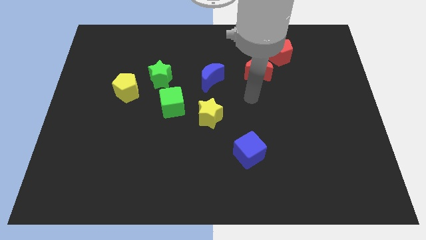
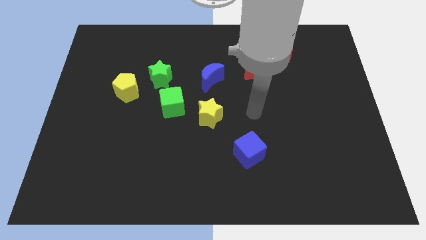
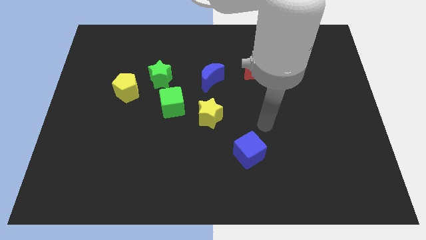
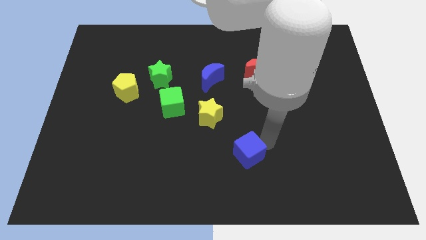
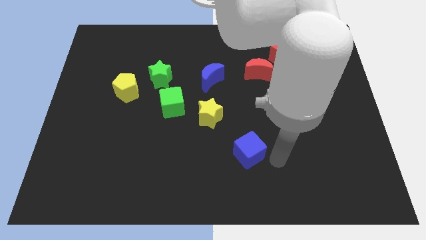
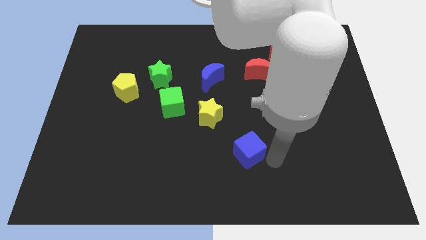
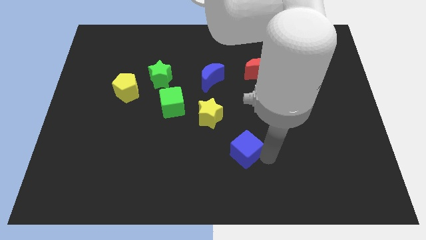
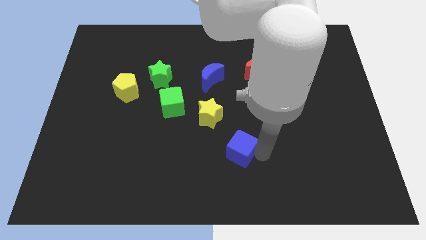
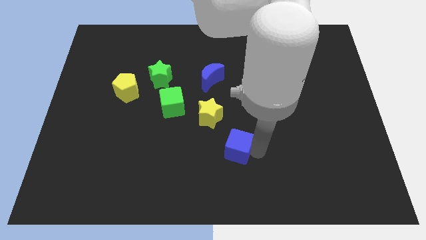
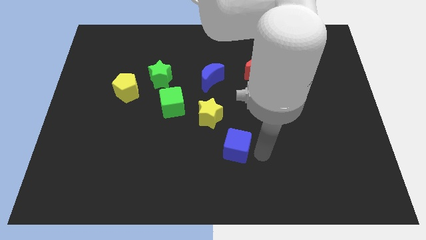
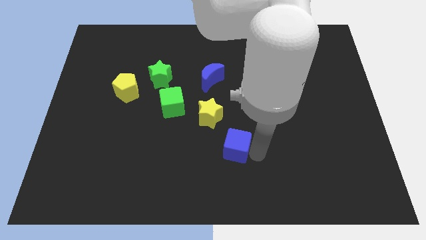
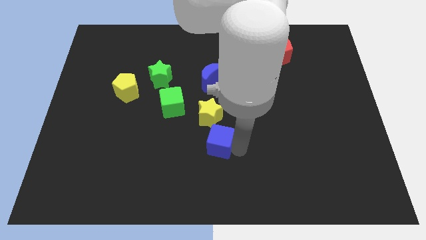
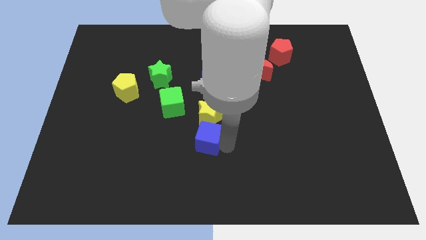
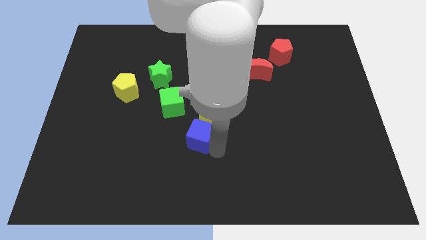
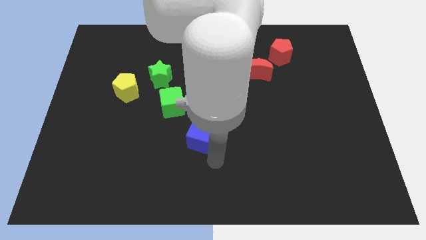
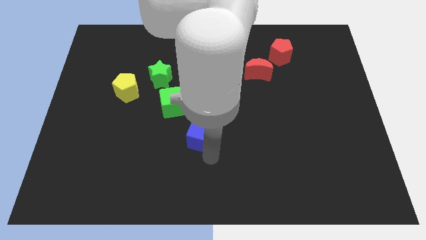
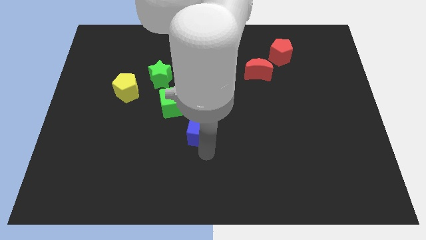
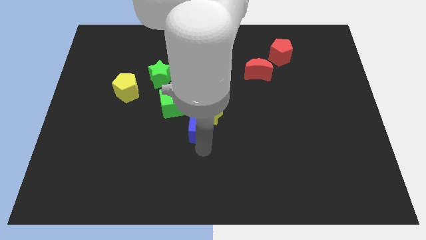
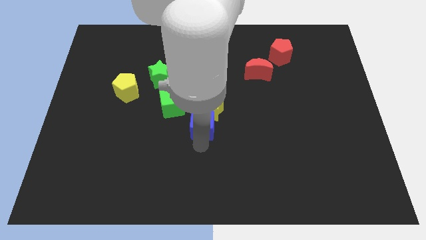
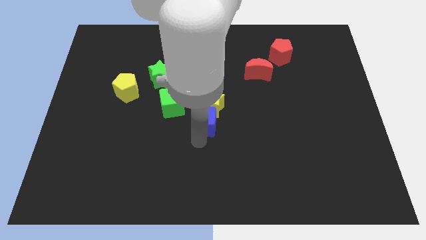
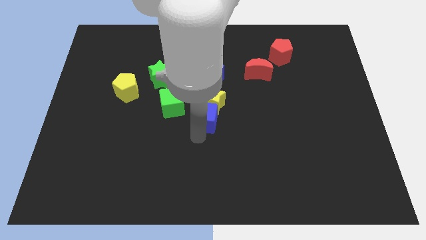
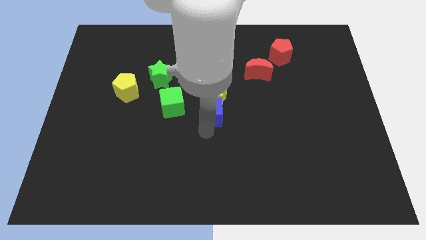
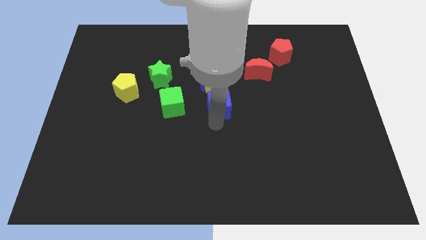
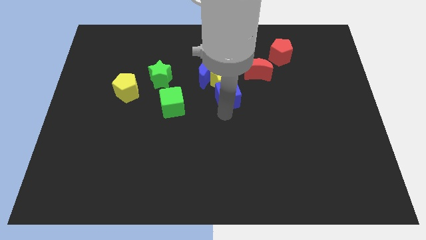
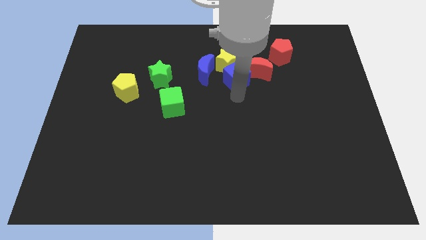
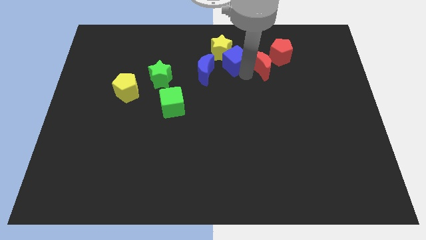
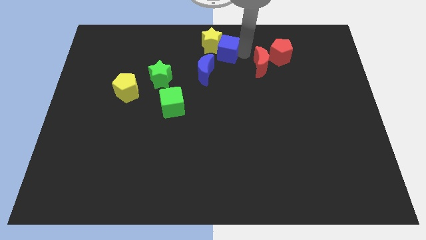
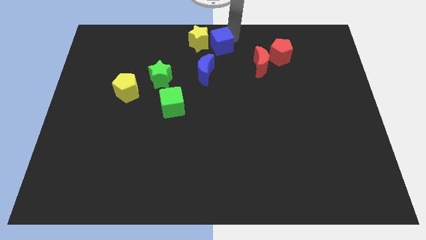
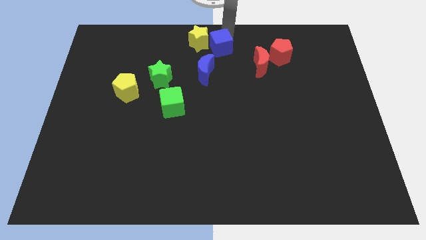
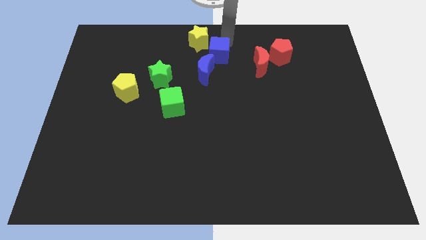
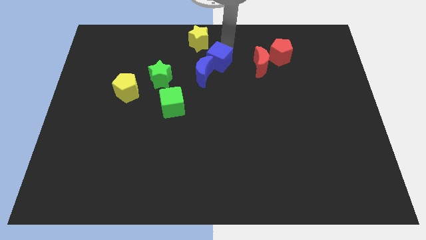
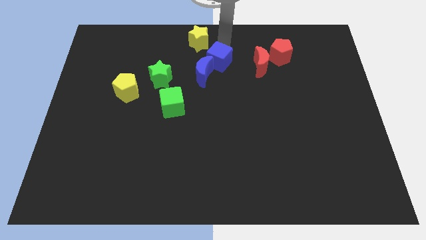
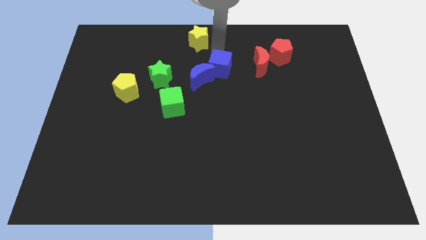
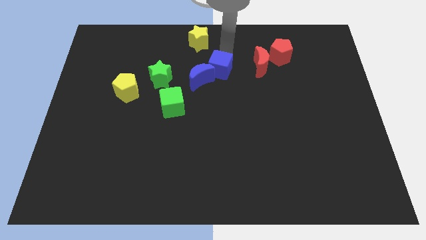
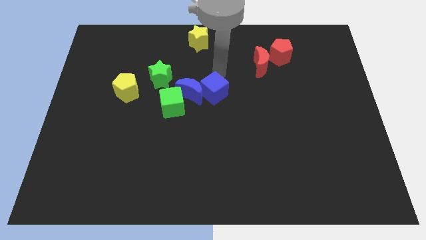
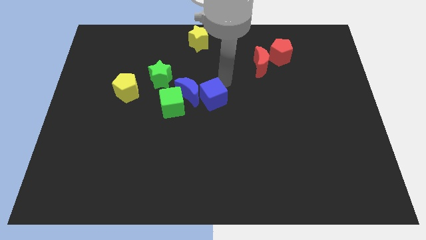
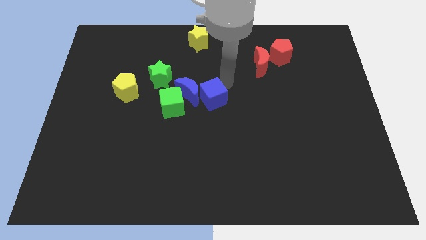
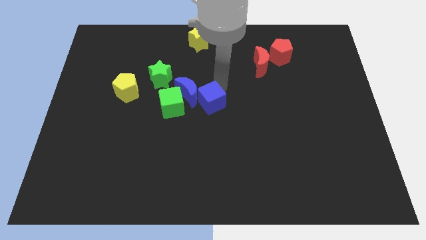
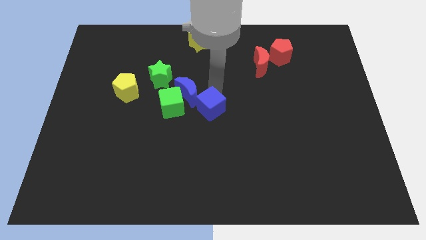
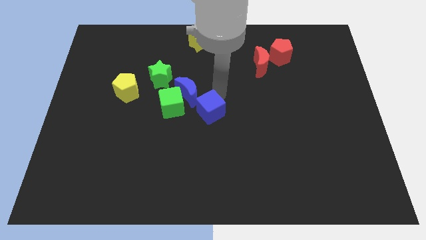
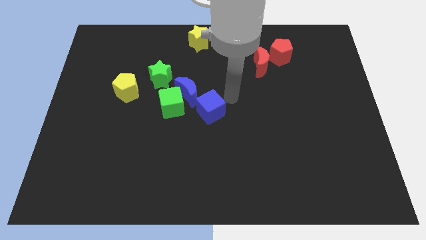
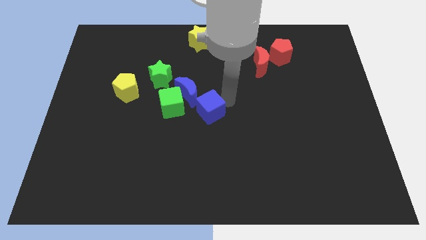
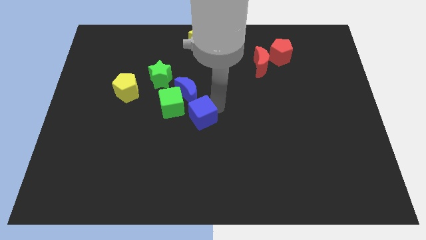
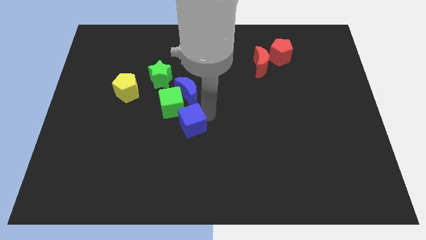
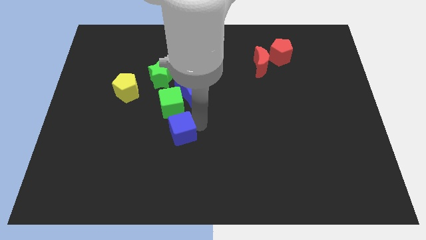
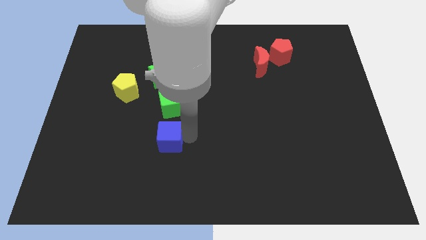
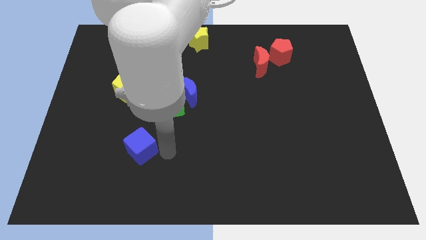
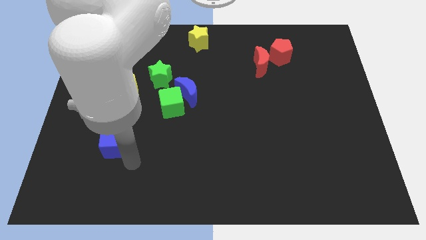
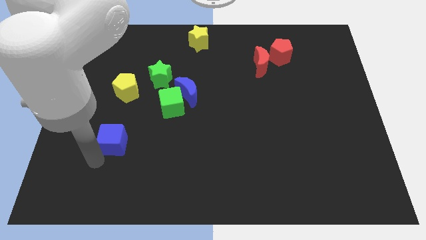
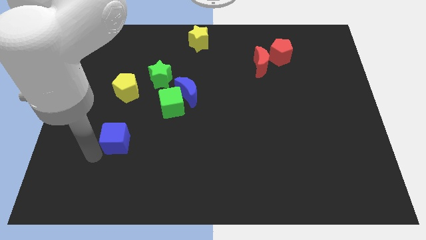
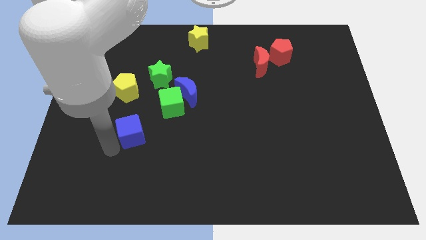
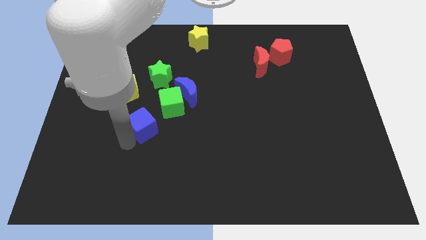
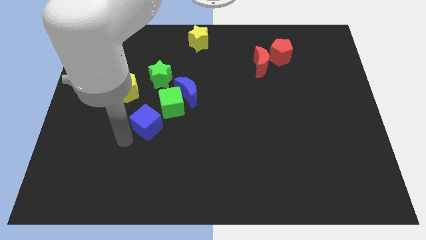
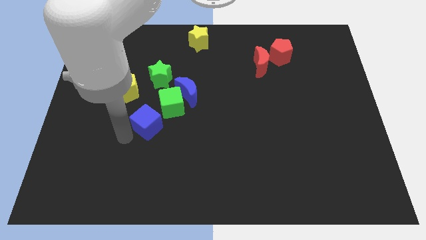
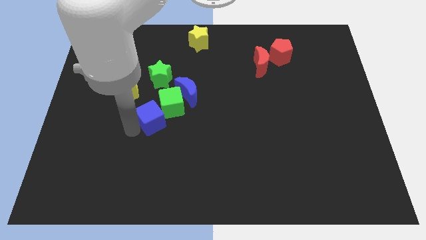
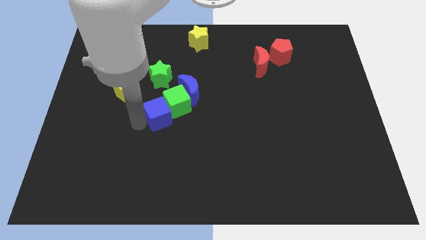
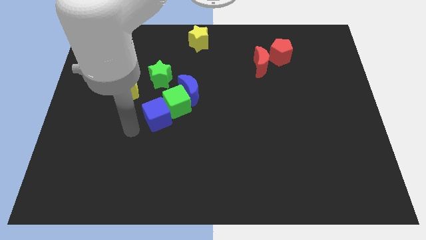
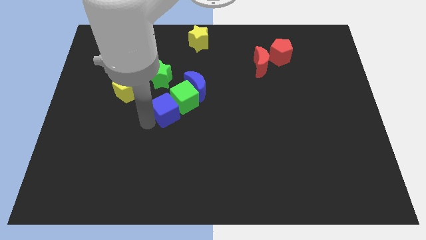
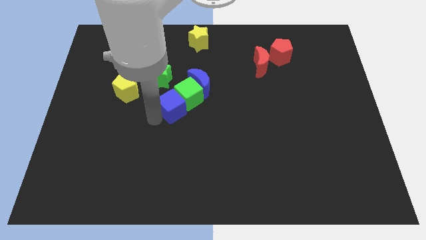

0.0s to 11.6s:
push the blue cube to the bottom right side of the green star

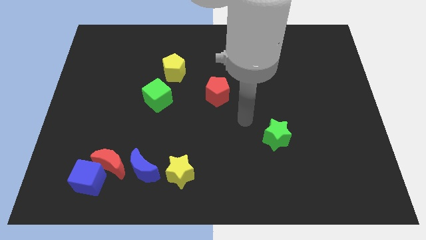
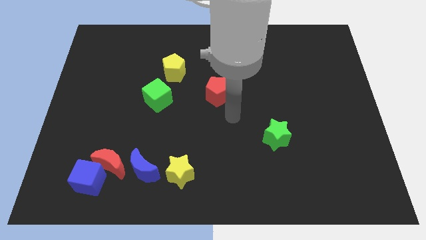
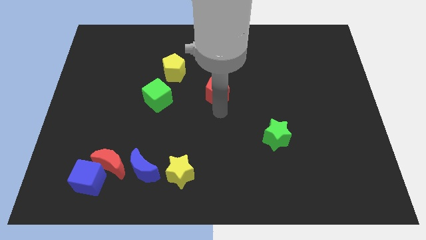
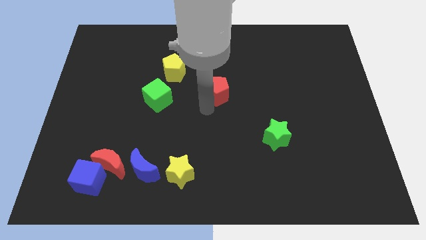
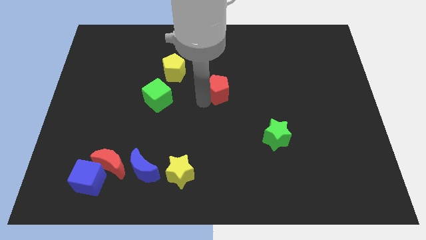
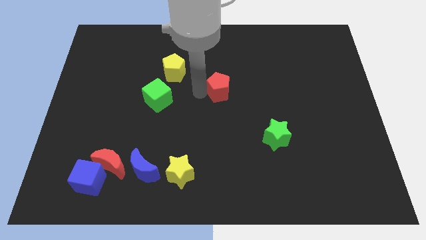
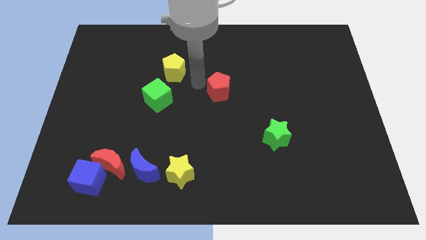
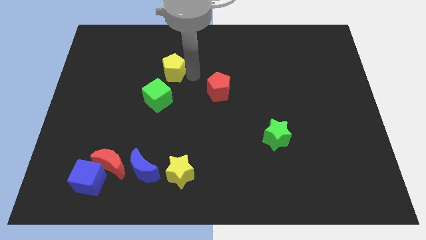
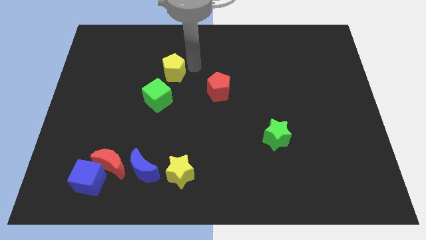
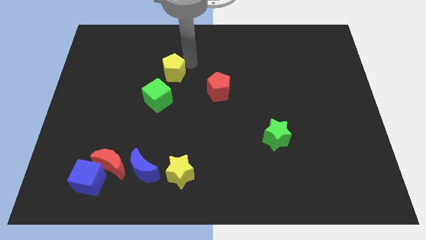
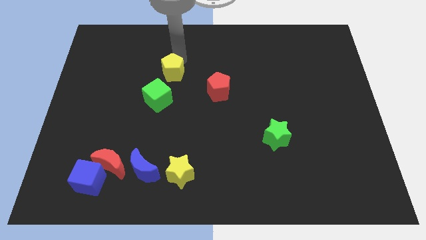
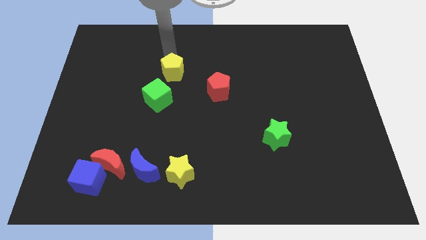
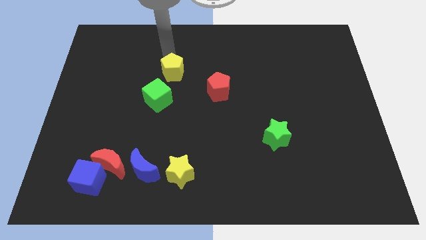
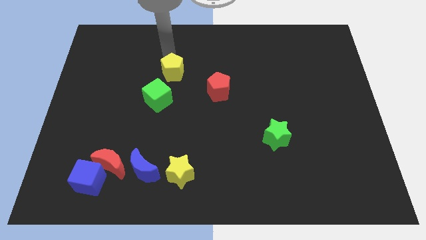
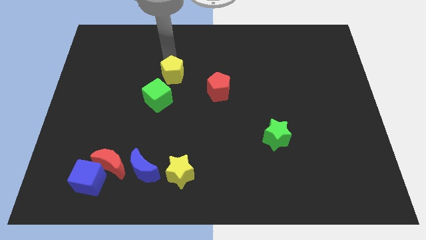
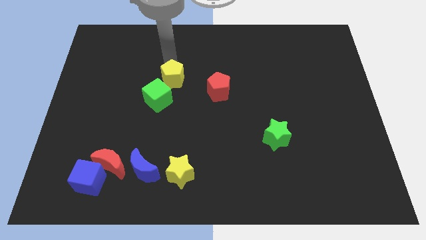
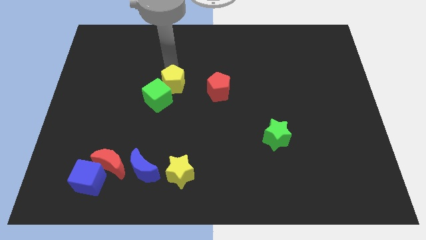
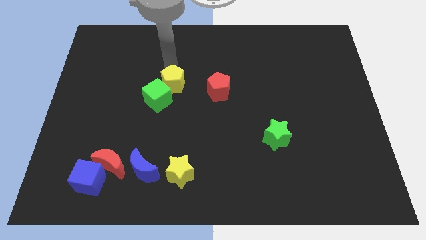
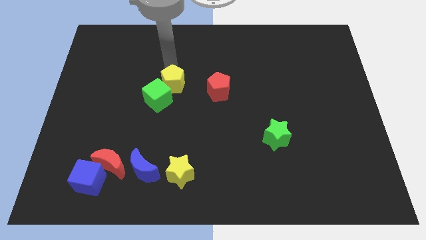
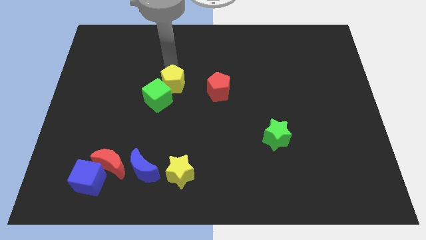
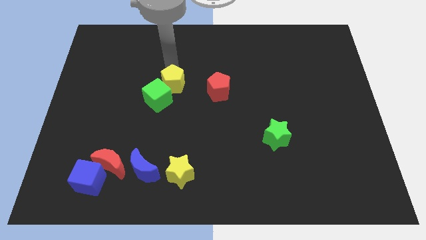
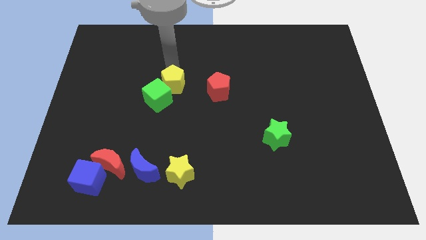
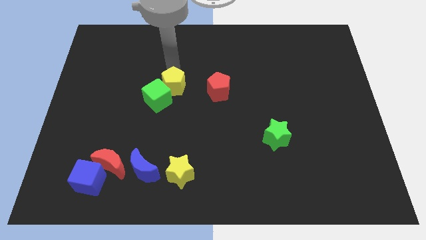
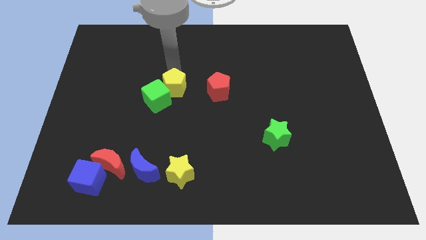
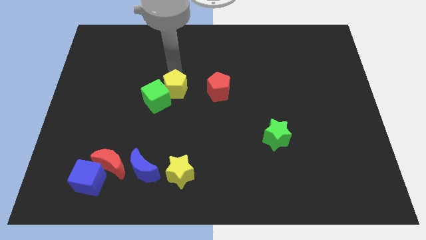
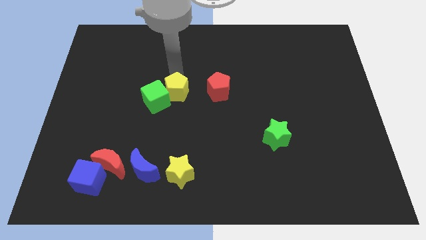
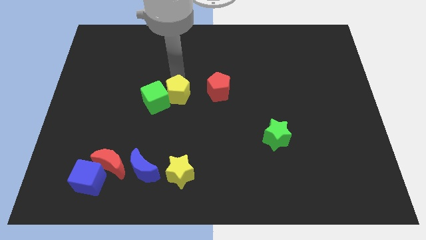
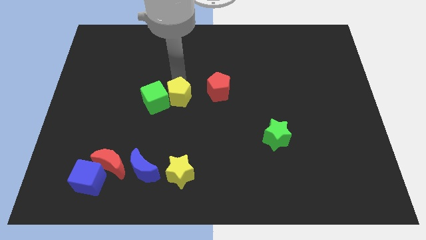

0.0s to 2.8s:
push the yellow pentagon to the bottom right side of the green cube
